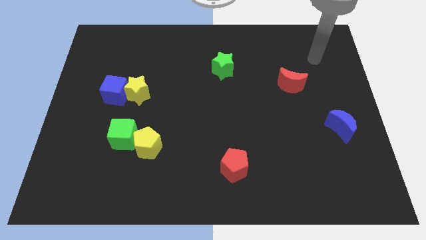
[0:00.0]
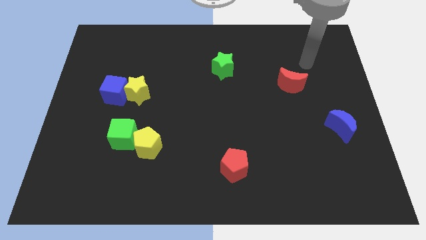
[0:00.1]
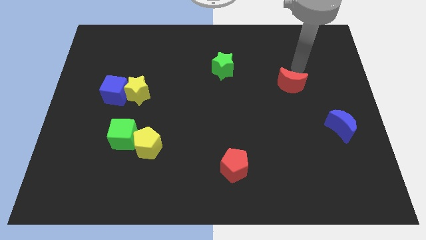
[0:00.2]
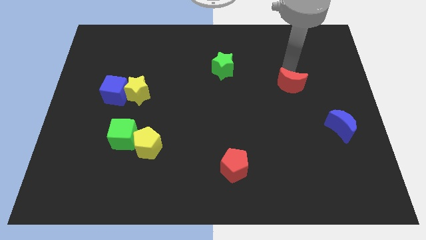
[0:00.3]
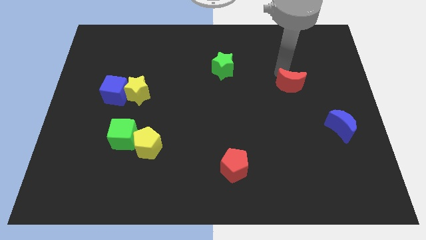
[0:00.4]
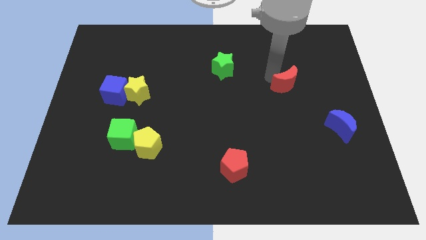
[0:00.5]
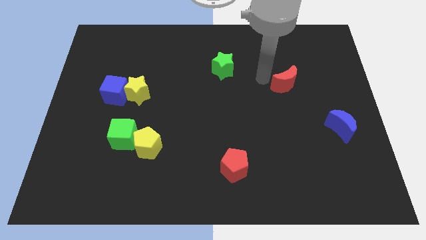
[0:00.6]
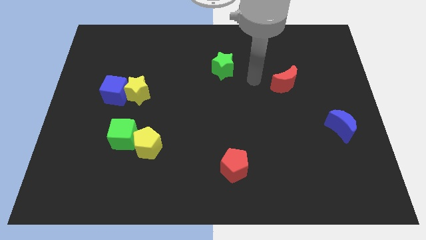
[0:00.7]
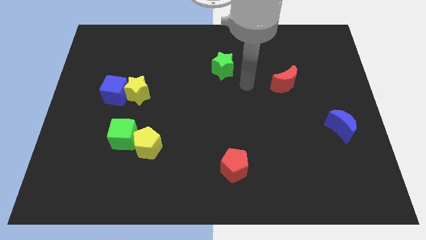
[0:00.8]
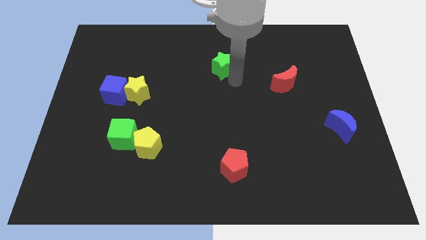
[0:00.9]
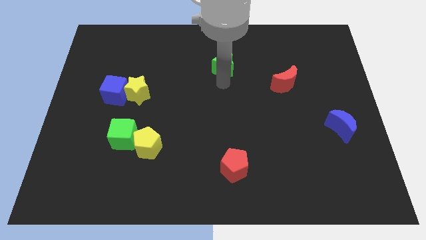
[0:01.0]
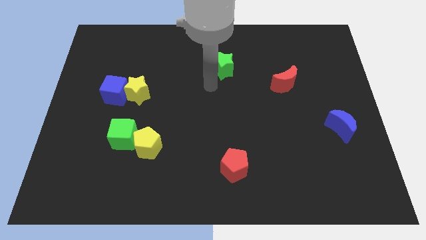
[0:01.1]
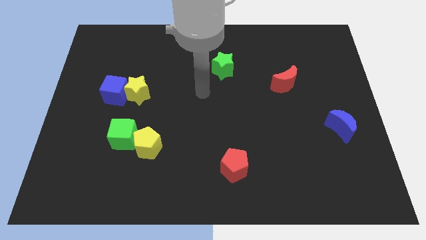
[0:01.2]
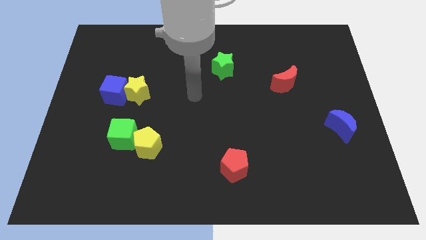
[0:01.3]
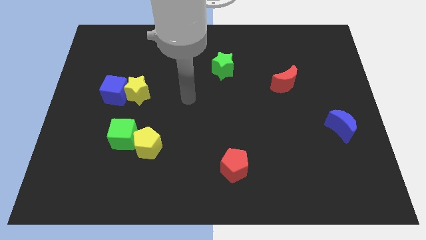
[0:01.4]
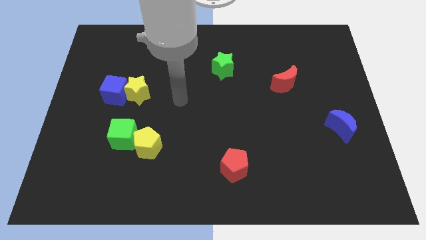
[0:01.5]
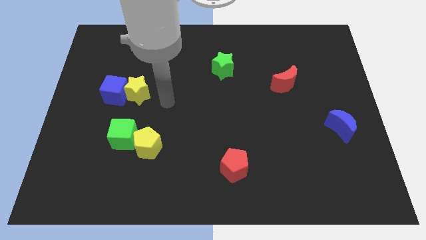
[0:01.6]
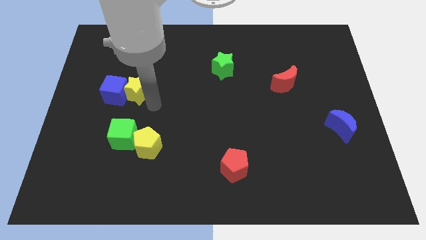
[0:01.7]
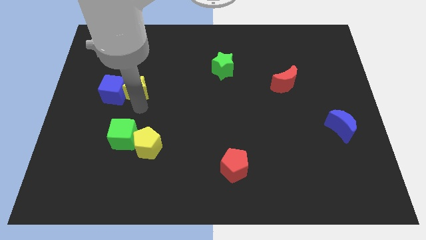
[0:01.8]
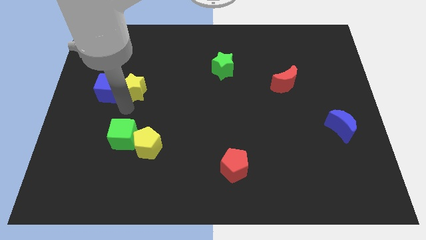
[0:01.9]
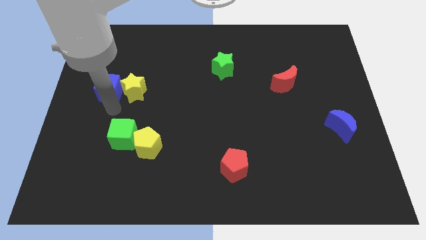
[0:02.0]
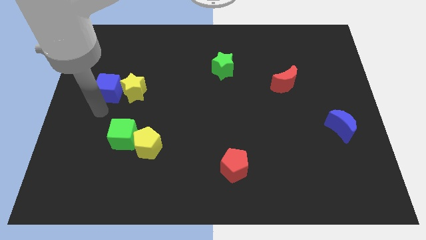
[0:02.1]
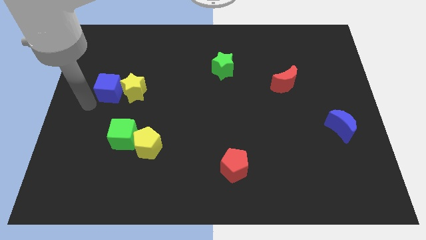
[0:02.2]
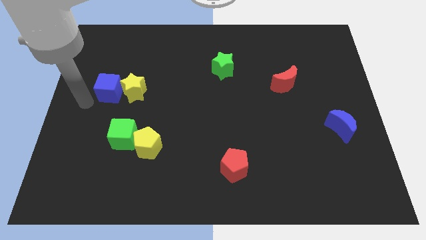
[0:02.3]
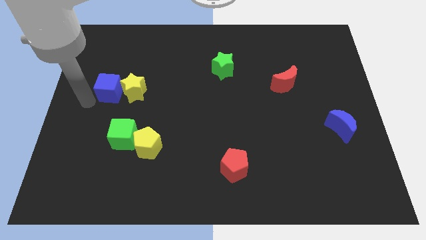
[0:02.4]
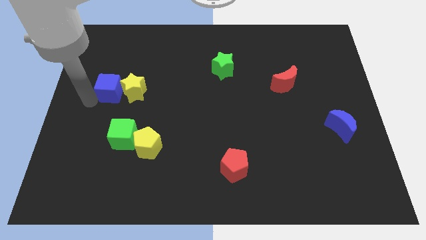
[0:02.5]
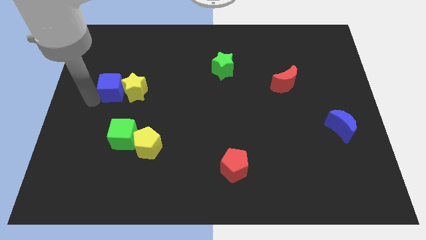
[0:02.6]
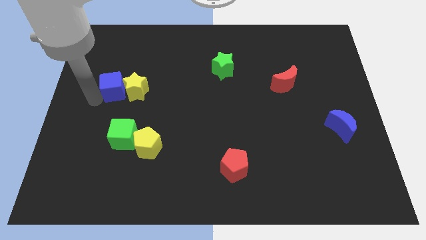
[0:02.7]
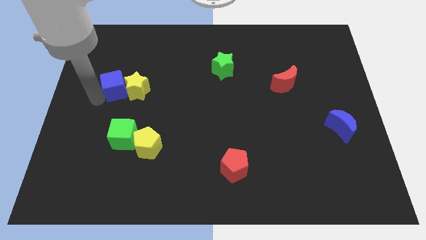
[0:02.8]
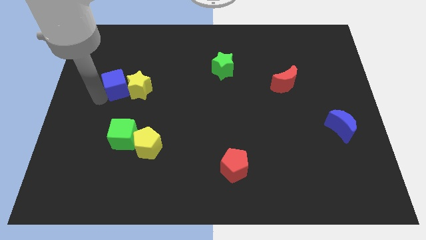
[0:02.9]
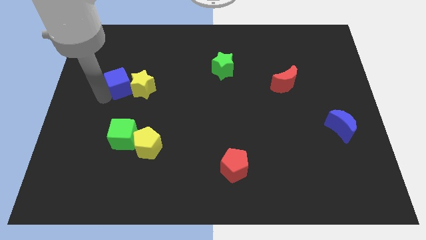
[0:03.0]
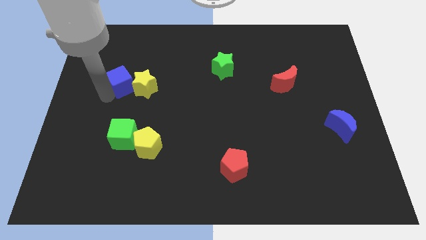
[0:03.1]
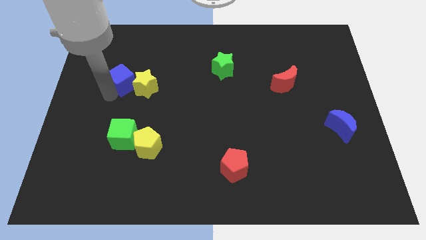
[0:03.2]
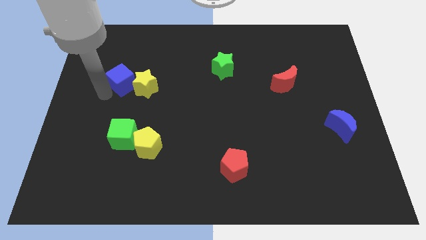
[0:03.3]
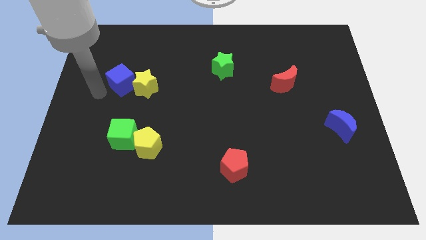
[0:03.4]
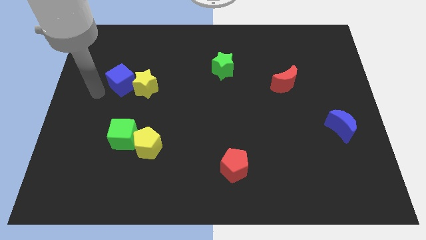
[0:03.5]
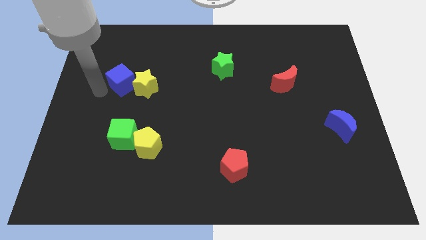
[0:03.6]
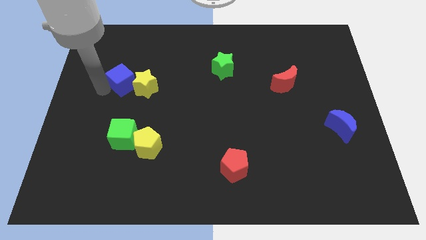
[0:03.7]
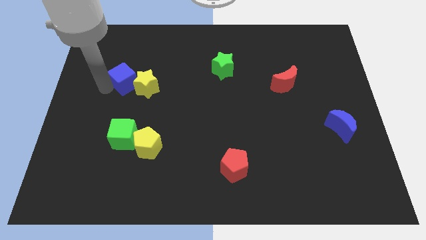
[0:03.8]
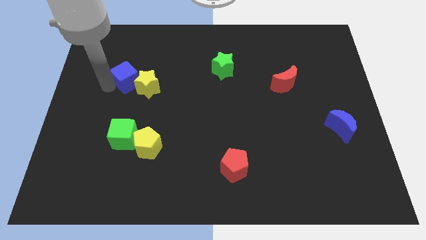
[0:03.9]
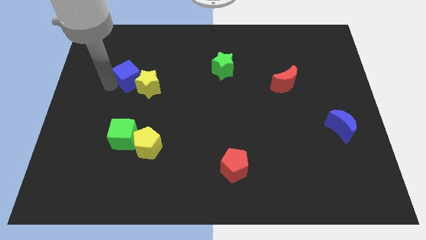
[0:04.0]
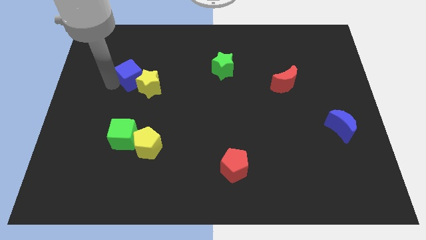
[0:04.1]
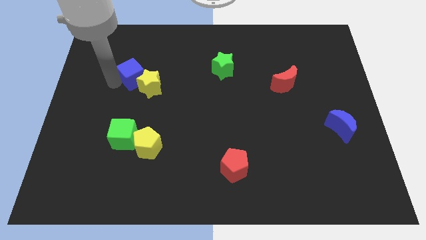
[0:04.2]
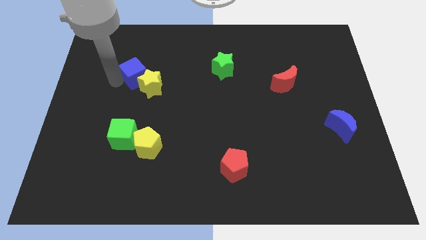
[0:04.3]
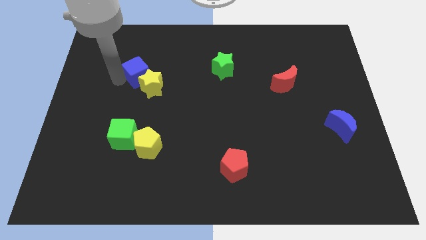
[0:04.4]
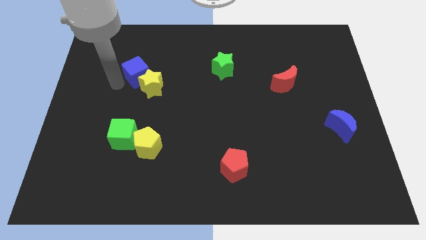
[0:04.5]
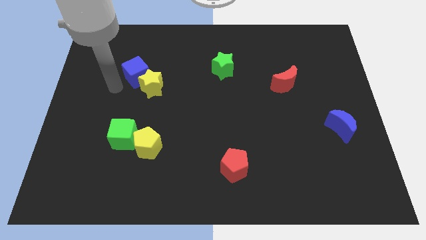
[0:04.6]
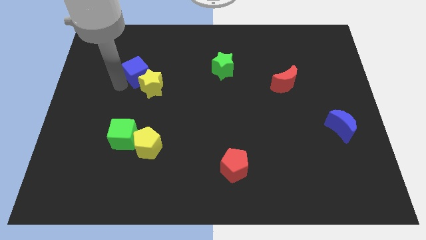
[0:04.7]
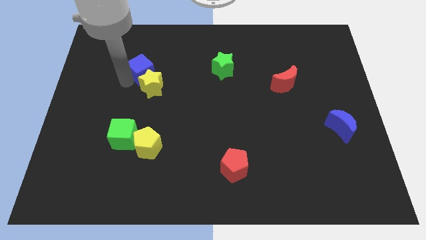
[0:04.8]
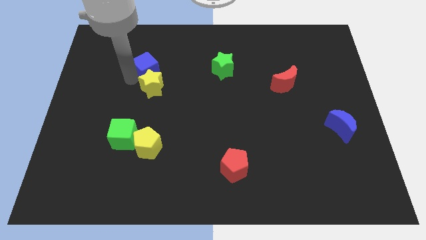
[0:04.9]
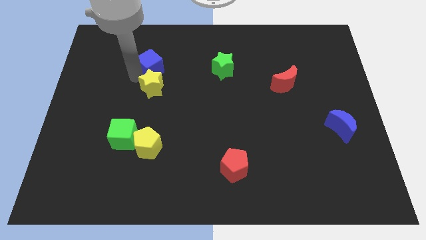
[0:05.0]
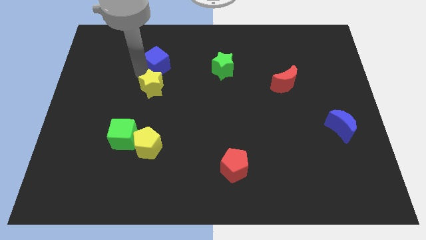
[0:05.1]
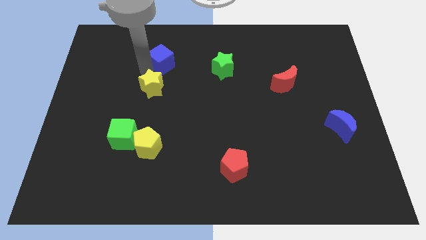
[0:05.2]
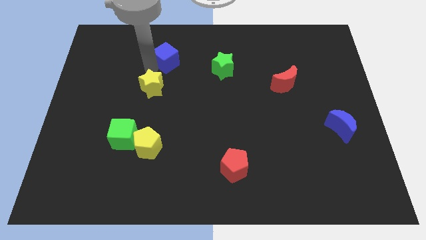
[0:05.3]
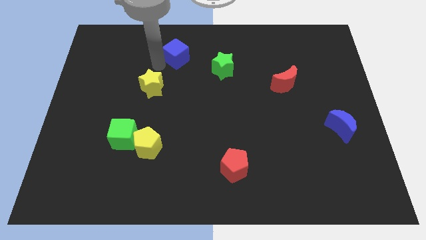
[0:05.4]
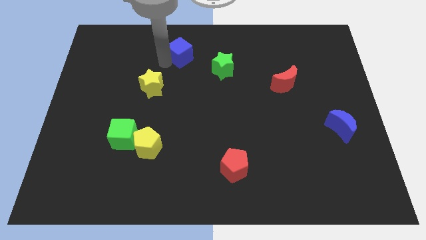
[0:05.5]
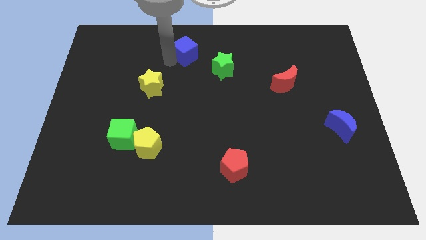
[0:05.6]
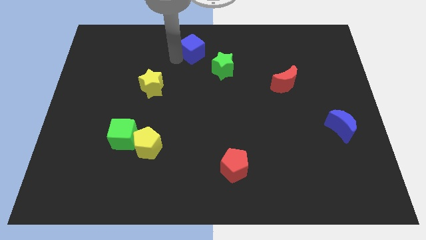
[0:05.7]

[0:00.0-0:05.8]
move the blue cube to the top
